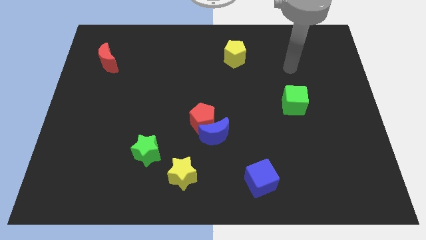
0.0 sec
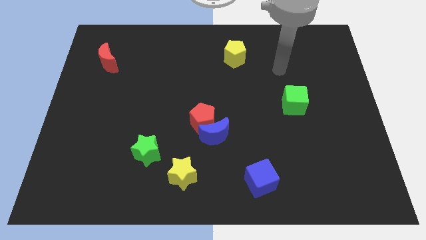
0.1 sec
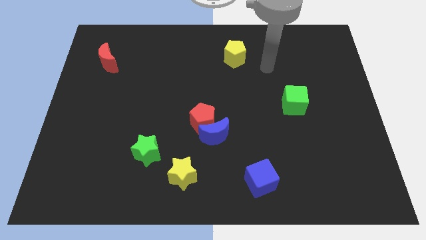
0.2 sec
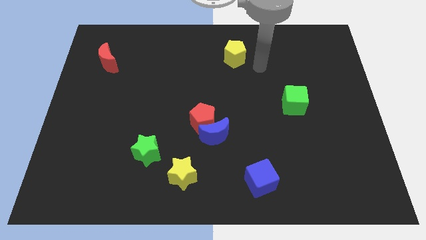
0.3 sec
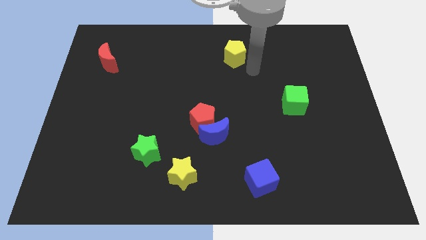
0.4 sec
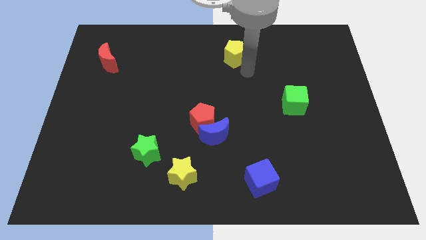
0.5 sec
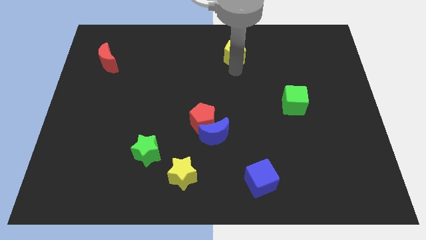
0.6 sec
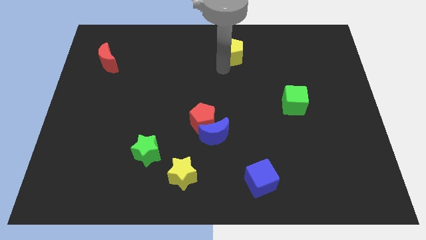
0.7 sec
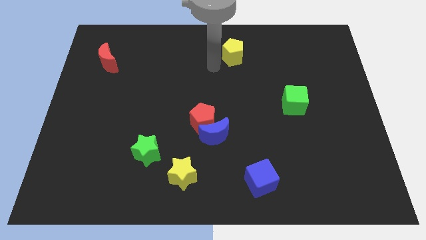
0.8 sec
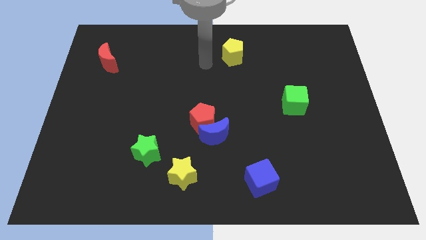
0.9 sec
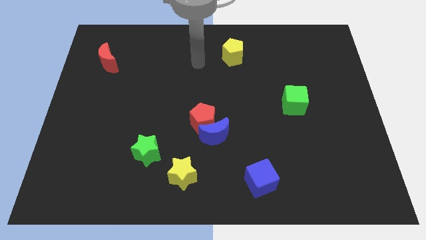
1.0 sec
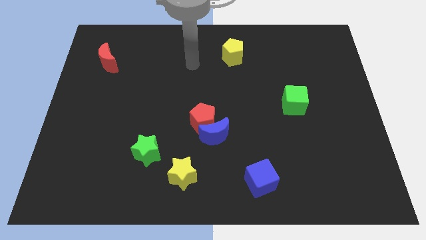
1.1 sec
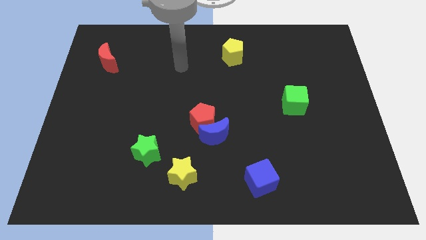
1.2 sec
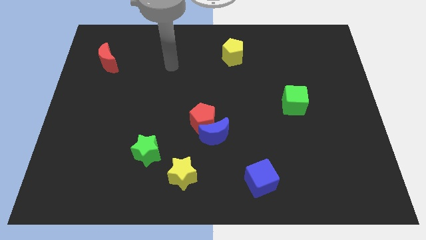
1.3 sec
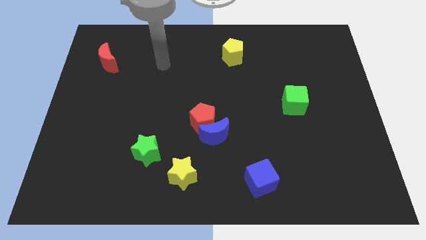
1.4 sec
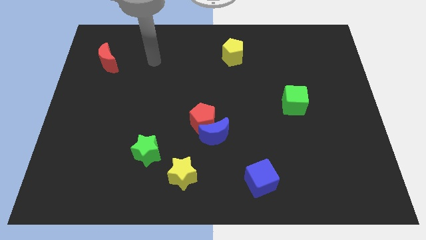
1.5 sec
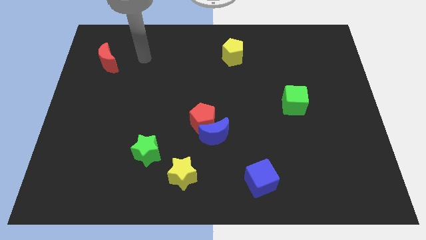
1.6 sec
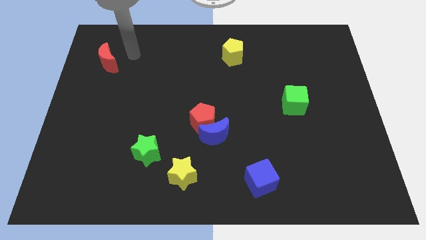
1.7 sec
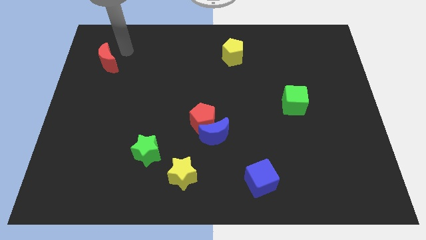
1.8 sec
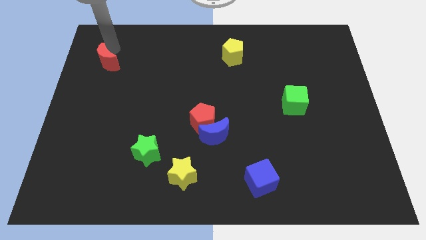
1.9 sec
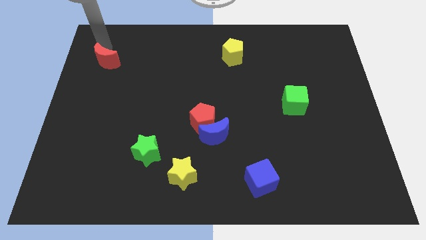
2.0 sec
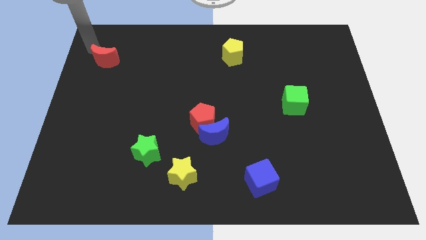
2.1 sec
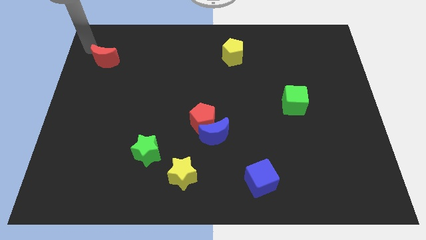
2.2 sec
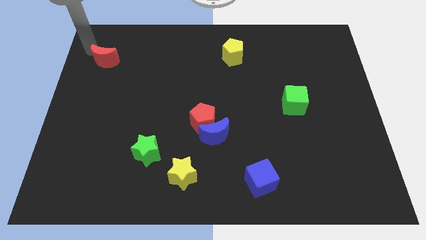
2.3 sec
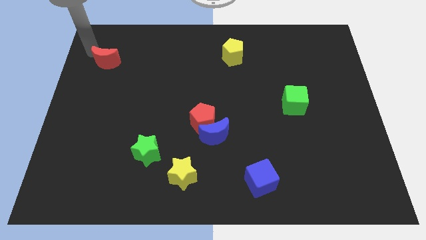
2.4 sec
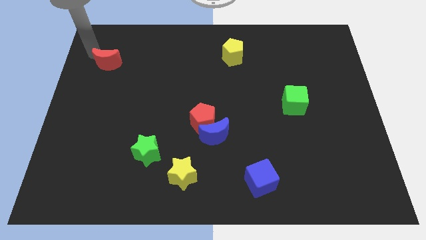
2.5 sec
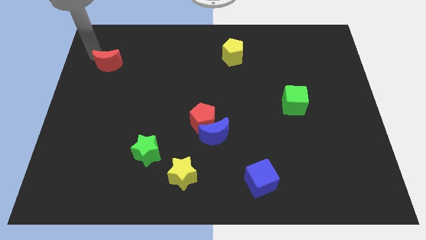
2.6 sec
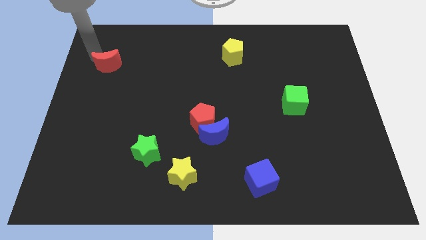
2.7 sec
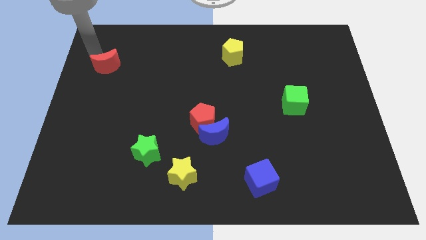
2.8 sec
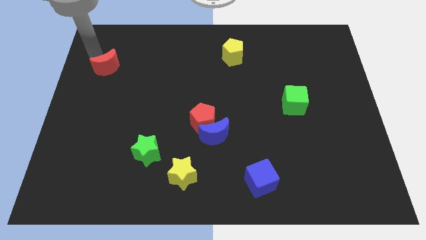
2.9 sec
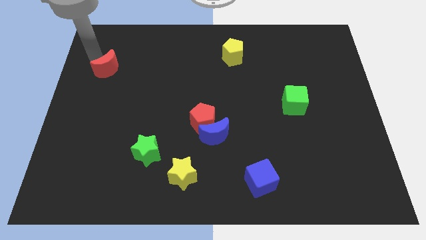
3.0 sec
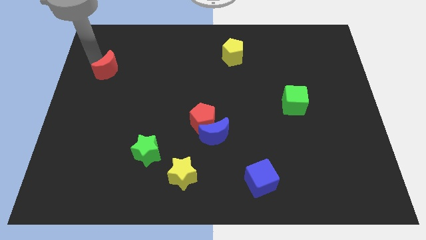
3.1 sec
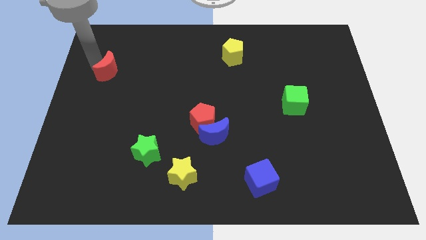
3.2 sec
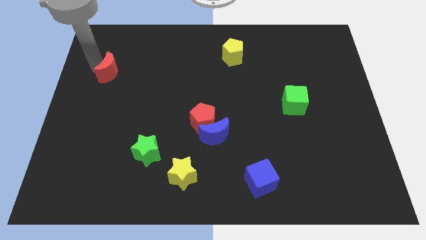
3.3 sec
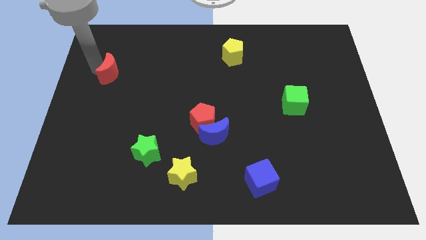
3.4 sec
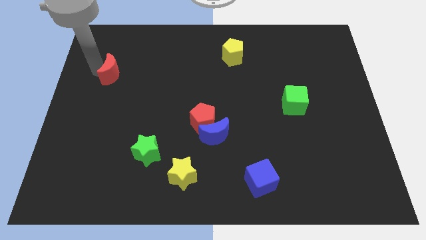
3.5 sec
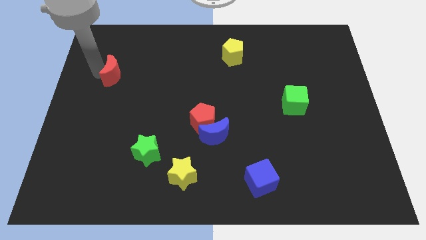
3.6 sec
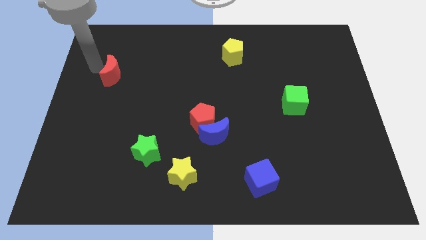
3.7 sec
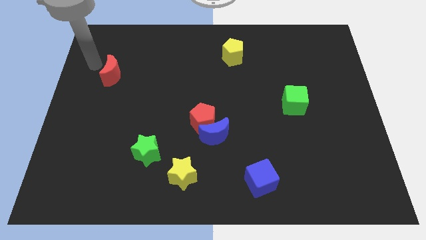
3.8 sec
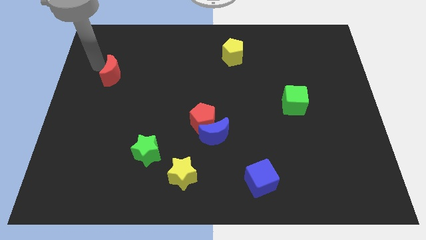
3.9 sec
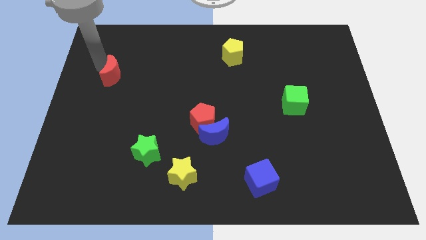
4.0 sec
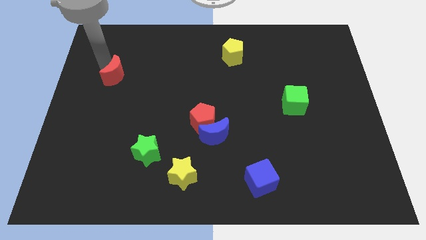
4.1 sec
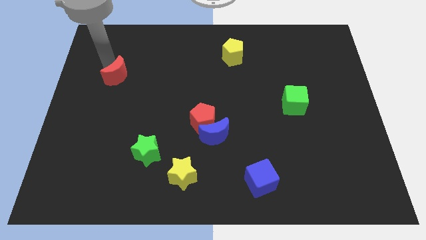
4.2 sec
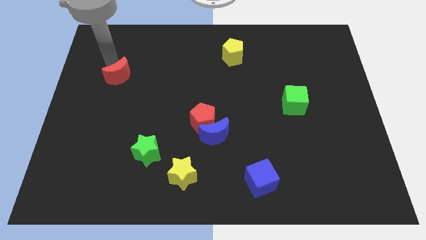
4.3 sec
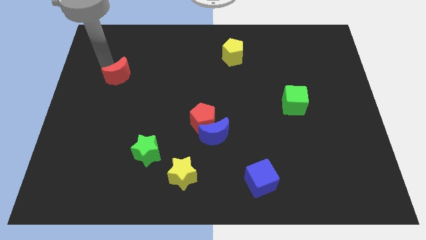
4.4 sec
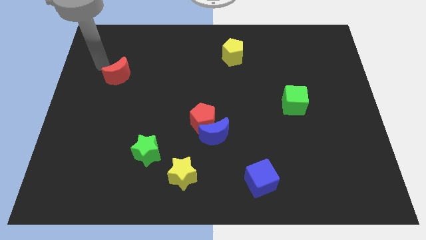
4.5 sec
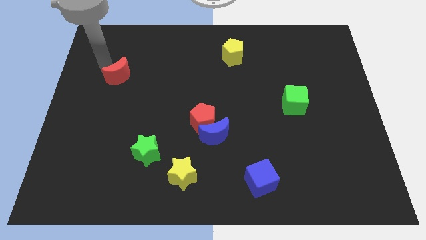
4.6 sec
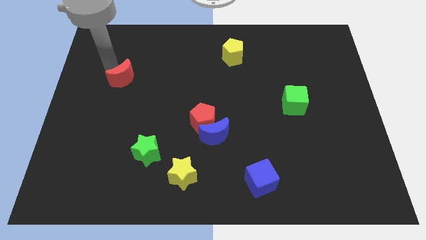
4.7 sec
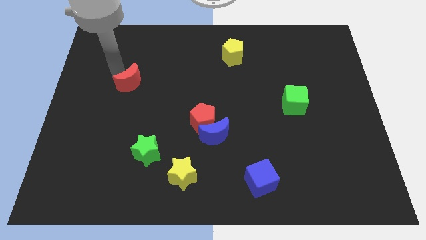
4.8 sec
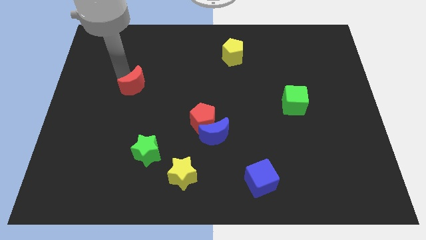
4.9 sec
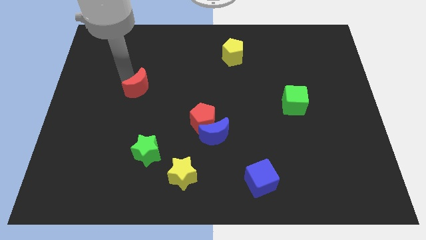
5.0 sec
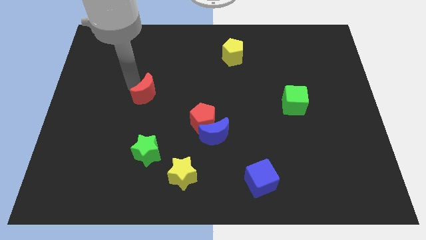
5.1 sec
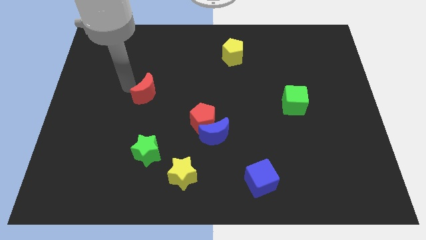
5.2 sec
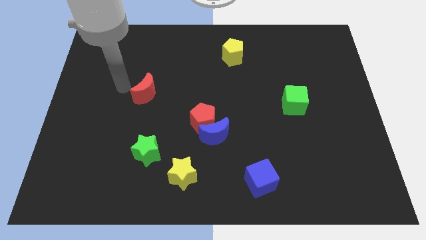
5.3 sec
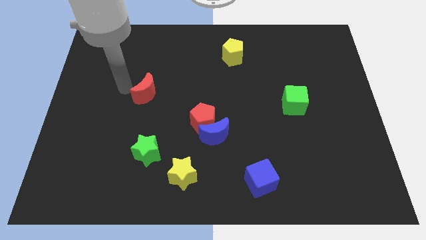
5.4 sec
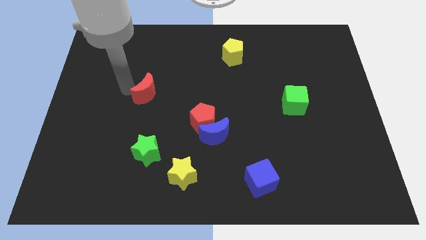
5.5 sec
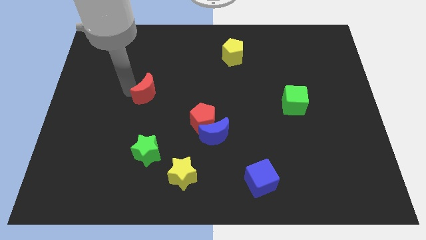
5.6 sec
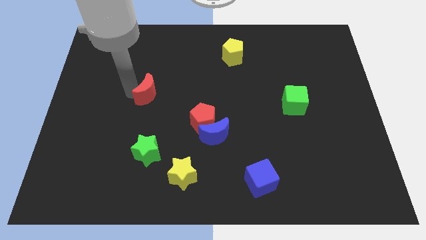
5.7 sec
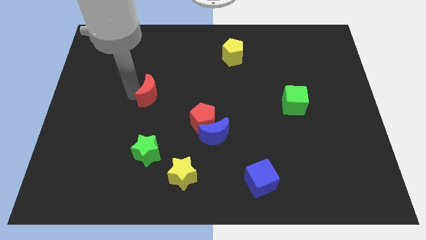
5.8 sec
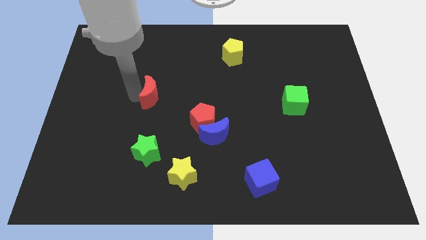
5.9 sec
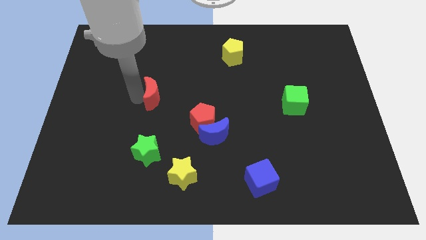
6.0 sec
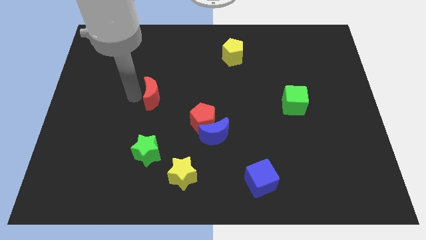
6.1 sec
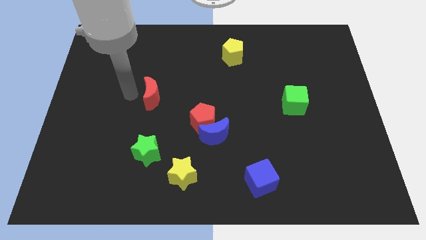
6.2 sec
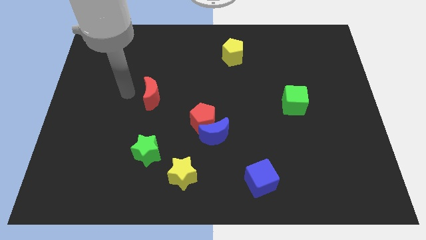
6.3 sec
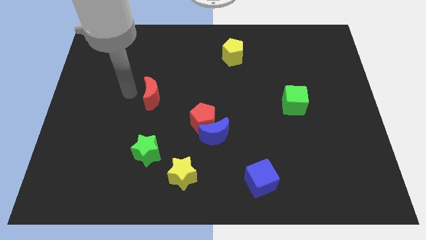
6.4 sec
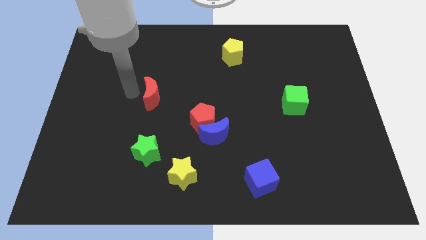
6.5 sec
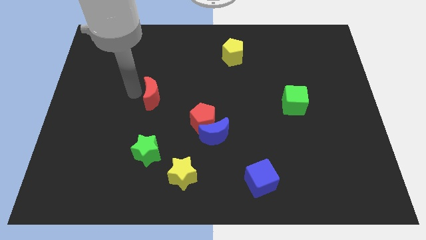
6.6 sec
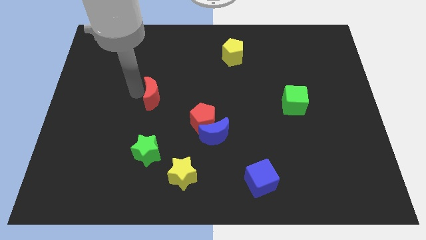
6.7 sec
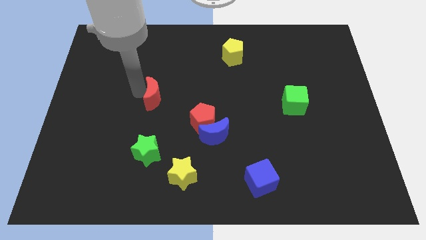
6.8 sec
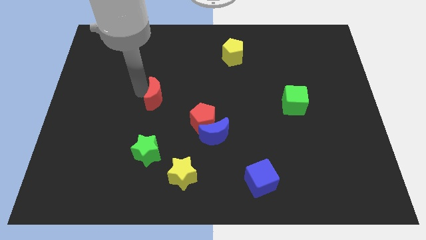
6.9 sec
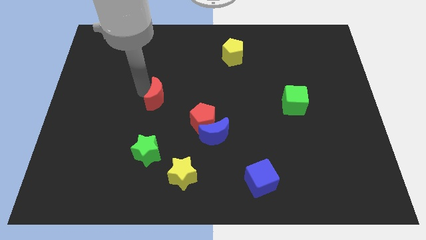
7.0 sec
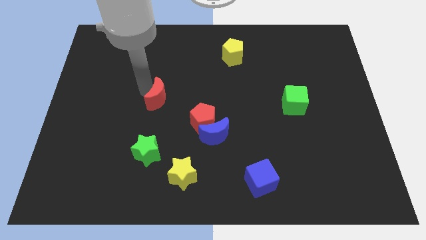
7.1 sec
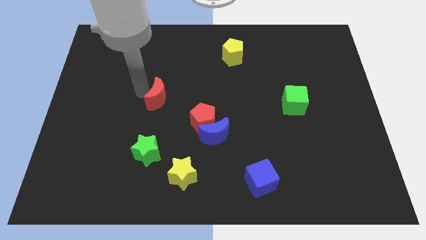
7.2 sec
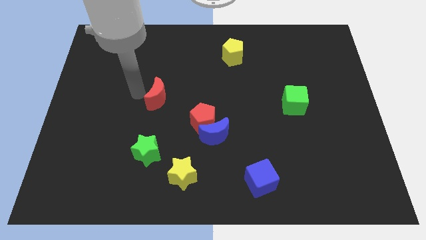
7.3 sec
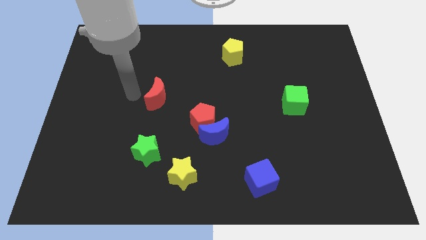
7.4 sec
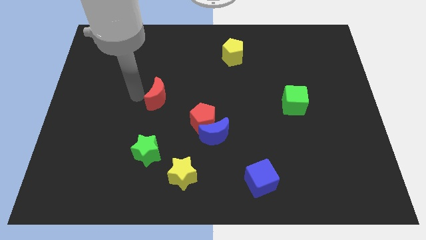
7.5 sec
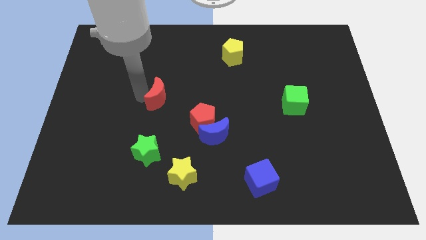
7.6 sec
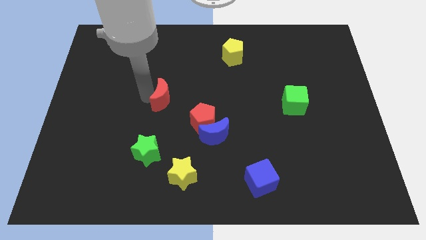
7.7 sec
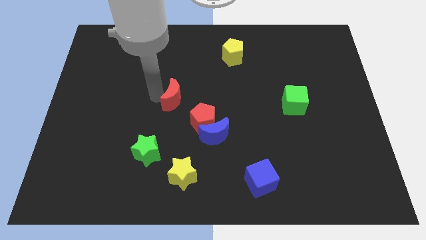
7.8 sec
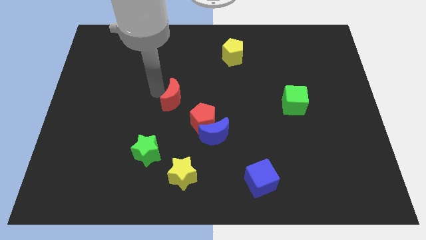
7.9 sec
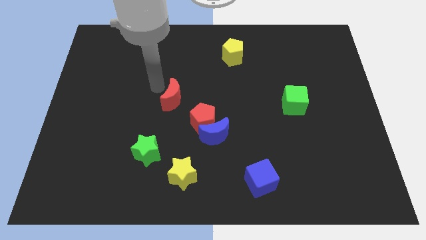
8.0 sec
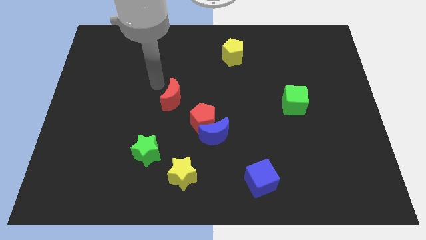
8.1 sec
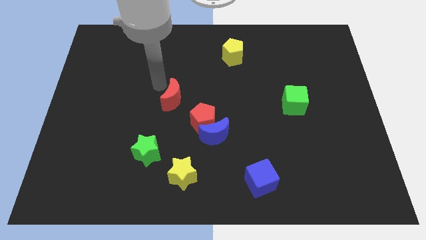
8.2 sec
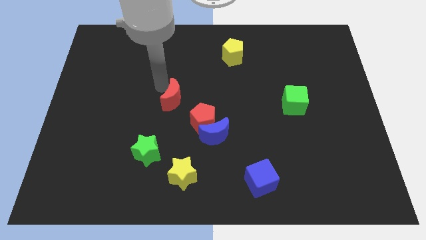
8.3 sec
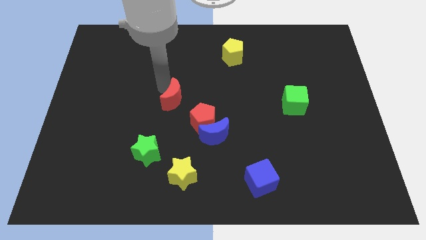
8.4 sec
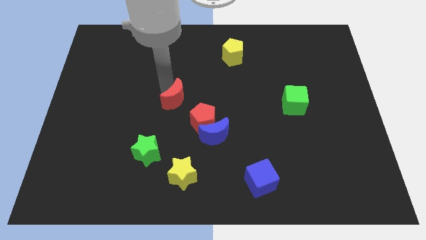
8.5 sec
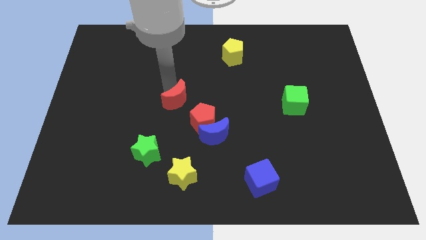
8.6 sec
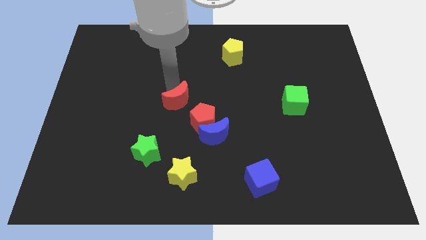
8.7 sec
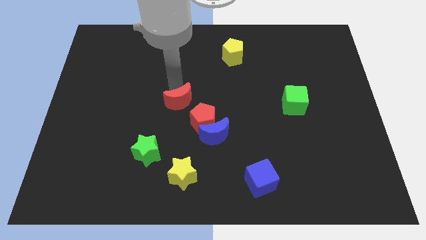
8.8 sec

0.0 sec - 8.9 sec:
put the red moon to the top left side of the blue moon
